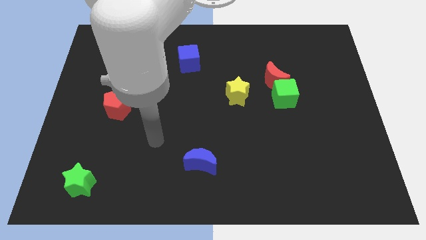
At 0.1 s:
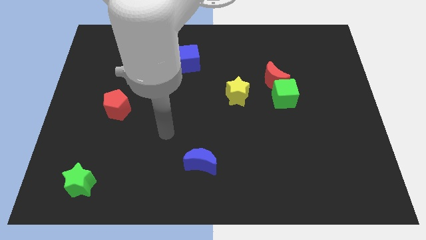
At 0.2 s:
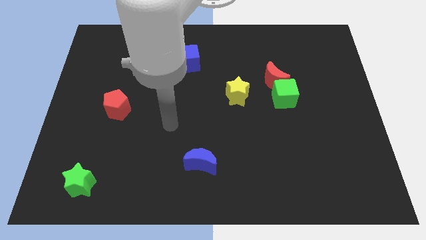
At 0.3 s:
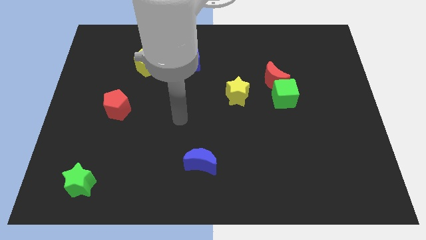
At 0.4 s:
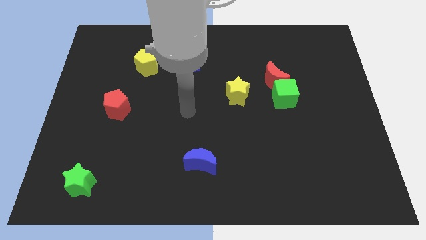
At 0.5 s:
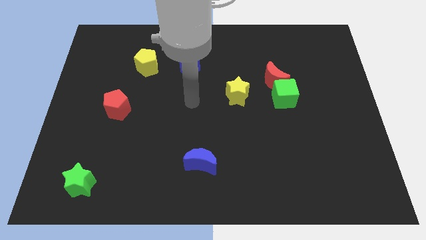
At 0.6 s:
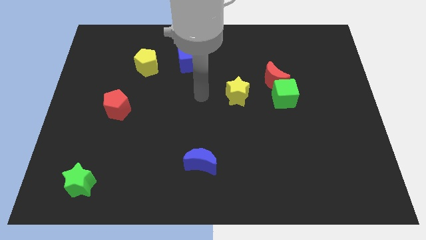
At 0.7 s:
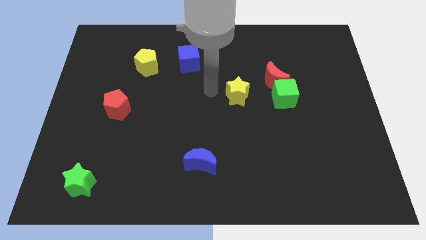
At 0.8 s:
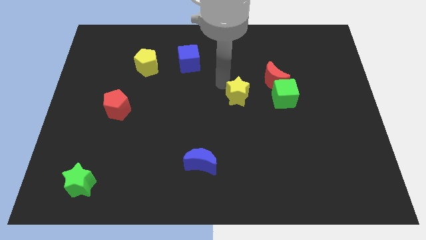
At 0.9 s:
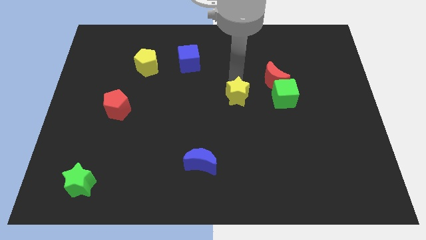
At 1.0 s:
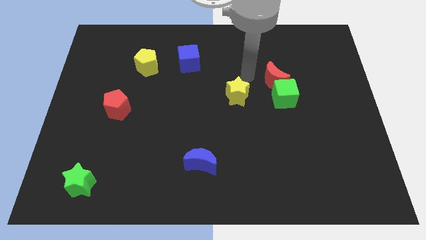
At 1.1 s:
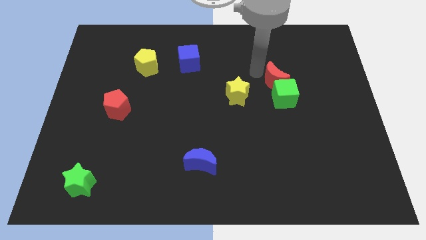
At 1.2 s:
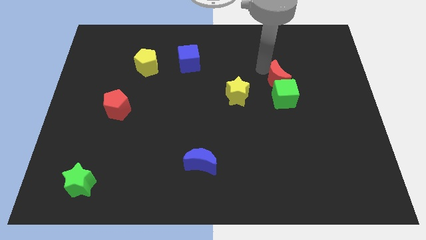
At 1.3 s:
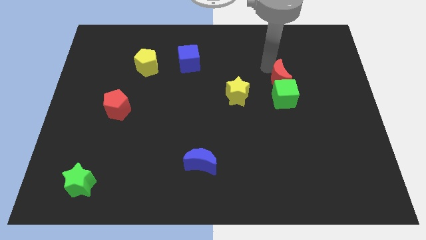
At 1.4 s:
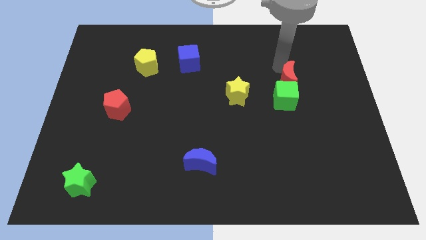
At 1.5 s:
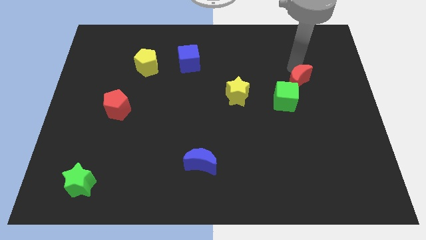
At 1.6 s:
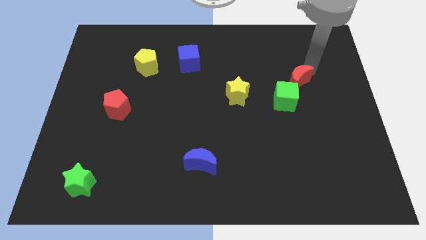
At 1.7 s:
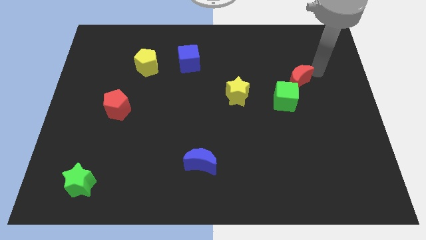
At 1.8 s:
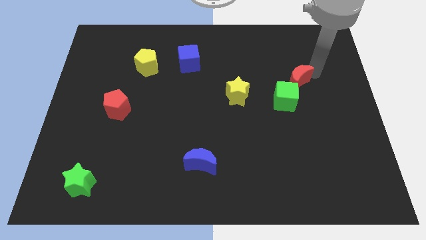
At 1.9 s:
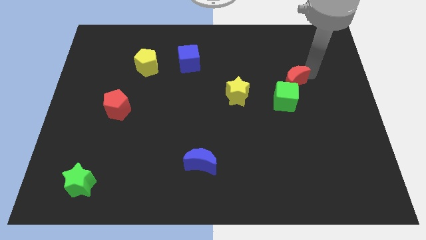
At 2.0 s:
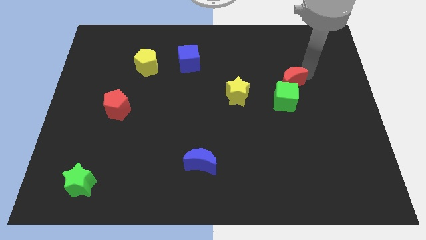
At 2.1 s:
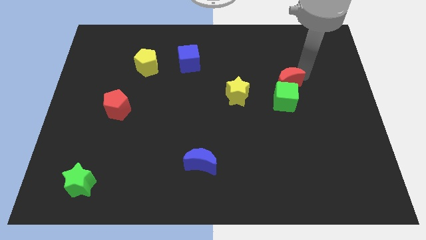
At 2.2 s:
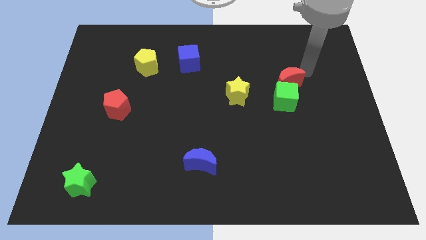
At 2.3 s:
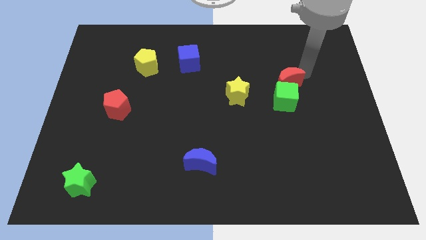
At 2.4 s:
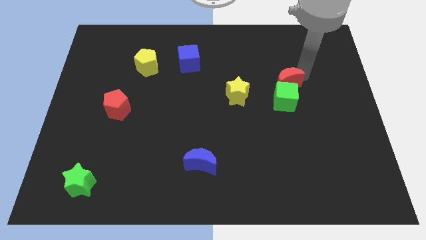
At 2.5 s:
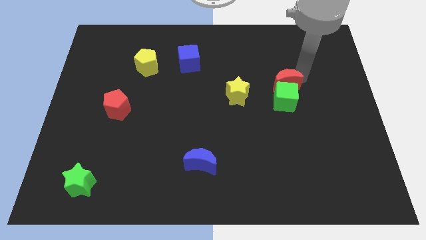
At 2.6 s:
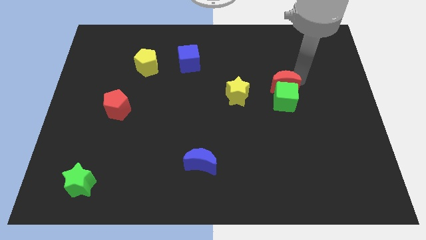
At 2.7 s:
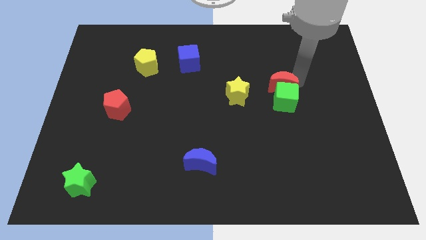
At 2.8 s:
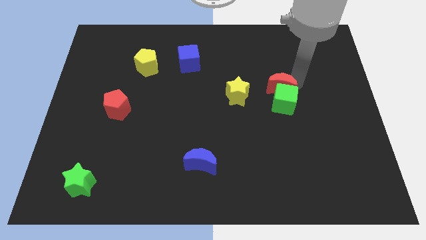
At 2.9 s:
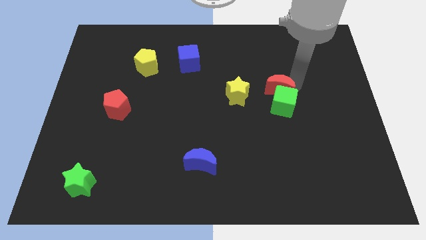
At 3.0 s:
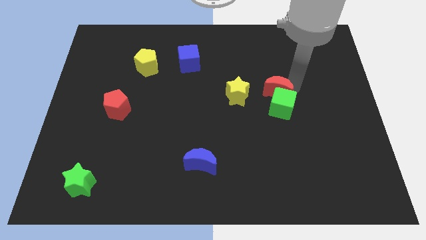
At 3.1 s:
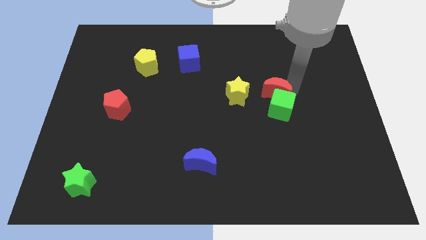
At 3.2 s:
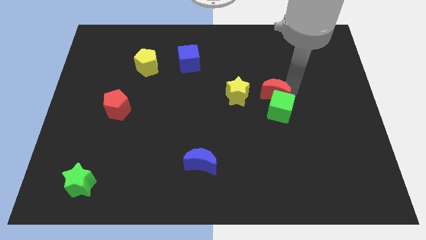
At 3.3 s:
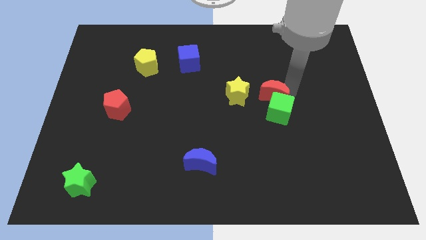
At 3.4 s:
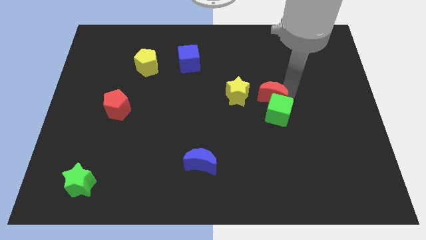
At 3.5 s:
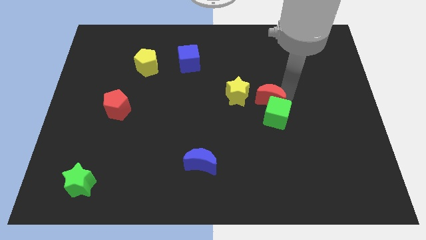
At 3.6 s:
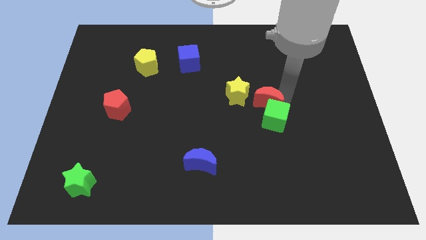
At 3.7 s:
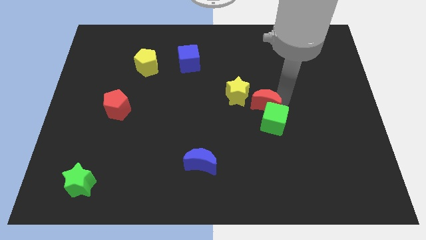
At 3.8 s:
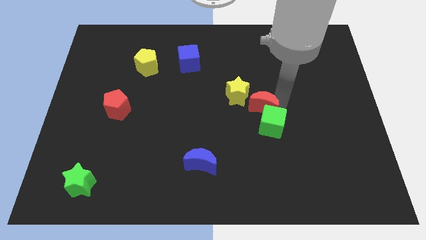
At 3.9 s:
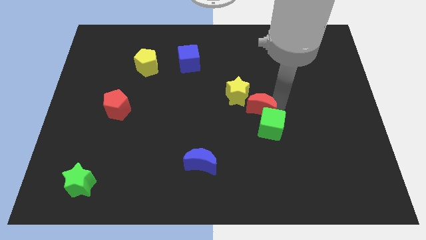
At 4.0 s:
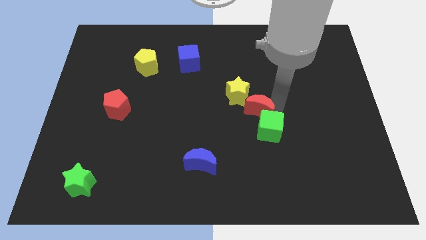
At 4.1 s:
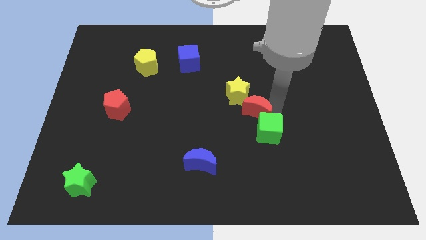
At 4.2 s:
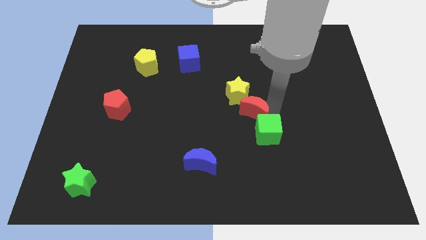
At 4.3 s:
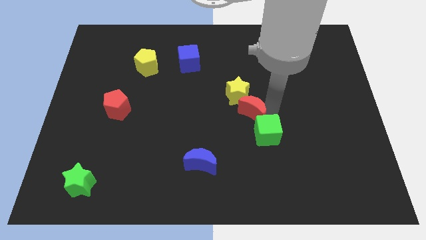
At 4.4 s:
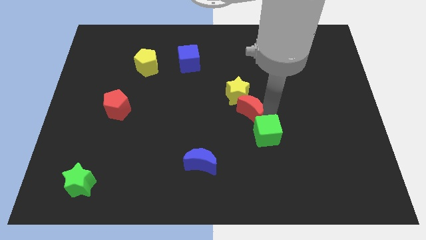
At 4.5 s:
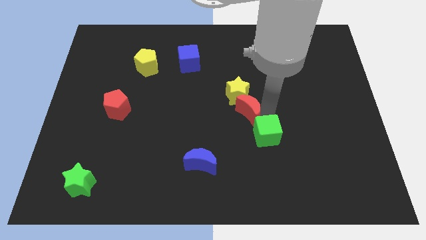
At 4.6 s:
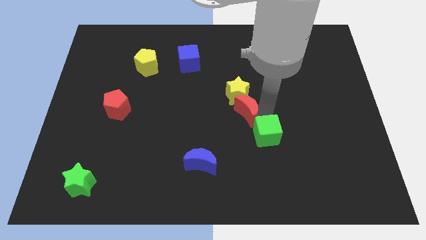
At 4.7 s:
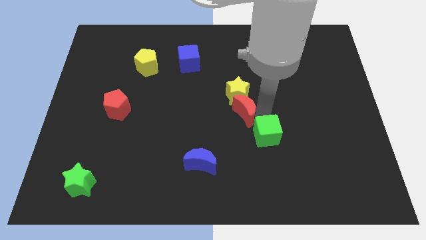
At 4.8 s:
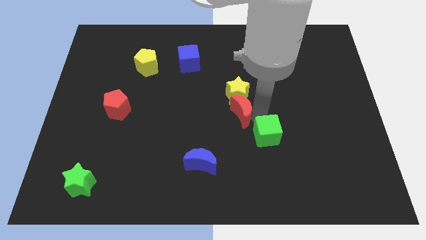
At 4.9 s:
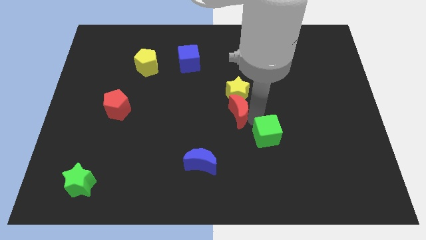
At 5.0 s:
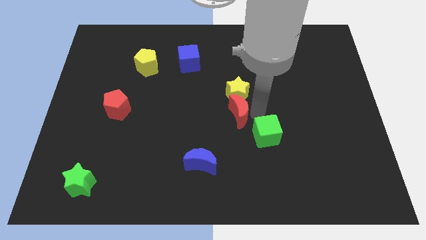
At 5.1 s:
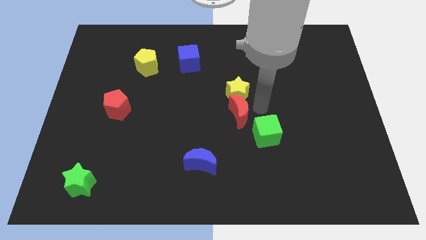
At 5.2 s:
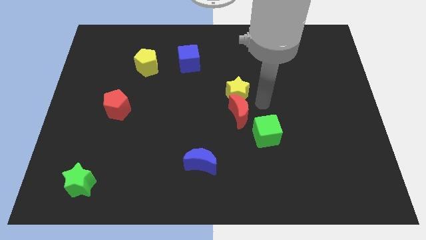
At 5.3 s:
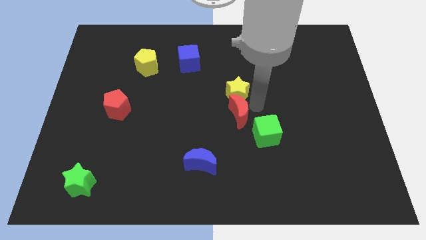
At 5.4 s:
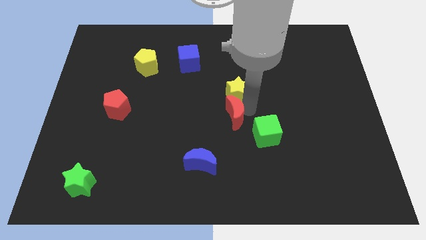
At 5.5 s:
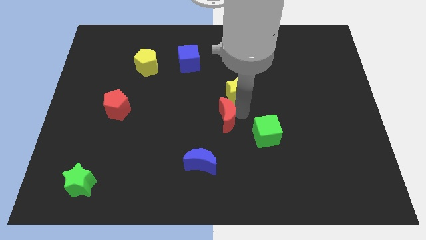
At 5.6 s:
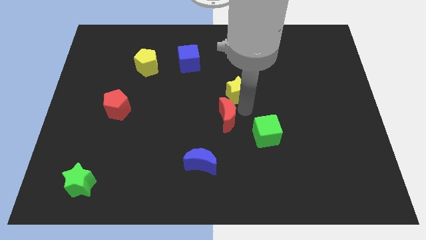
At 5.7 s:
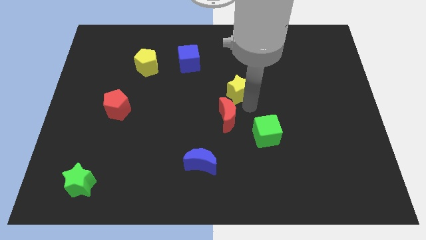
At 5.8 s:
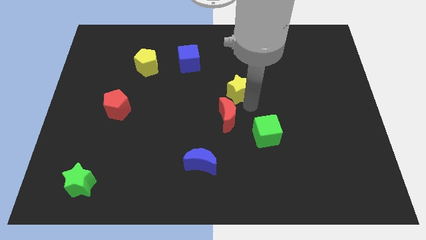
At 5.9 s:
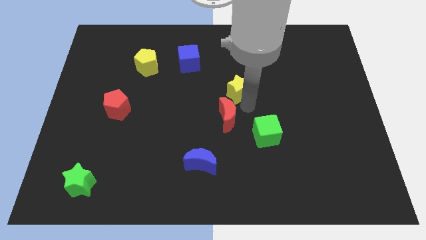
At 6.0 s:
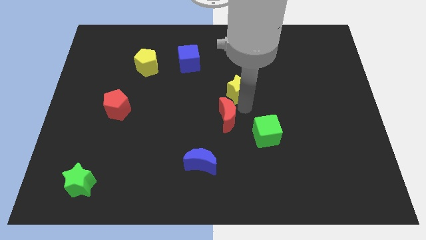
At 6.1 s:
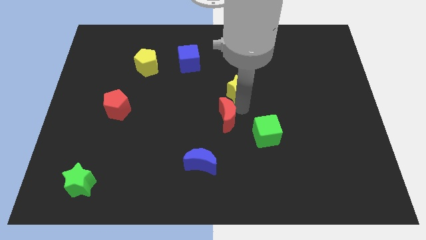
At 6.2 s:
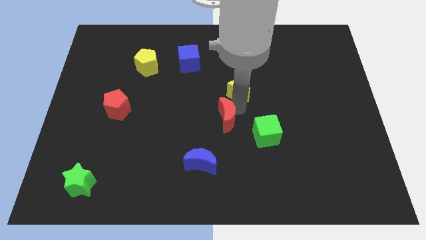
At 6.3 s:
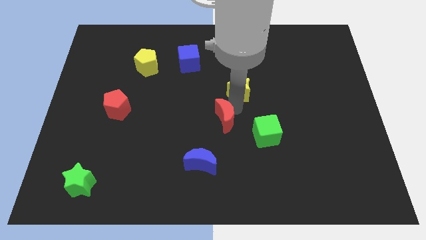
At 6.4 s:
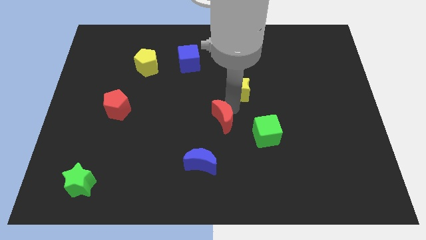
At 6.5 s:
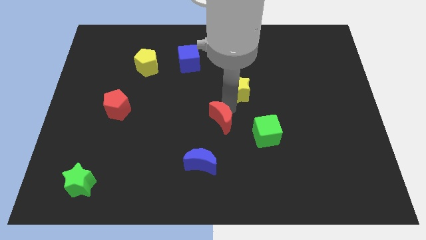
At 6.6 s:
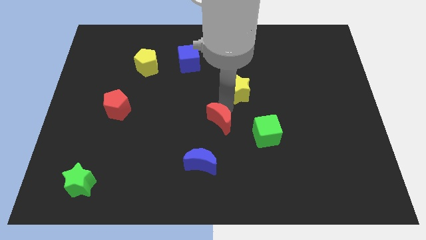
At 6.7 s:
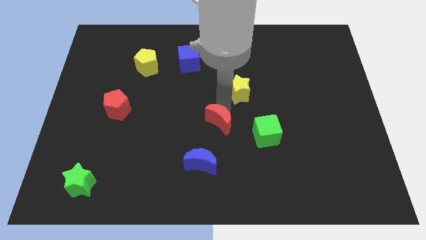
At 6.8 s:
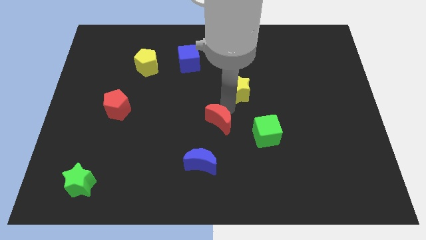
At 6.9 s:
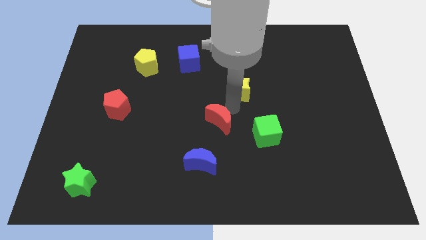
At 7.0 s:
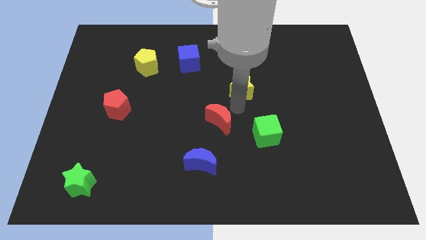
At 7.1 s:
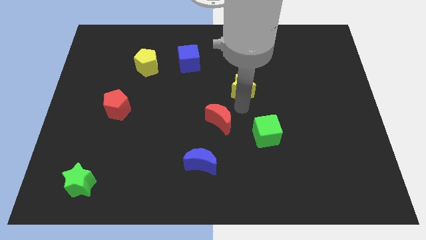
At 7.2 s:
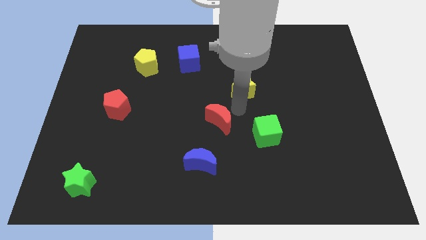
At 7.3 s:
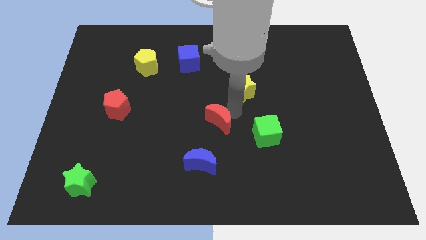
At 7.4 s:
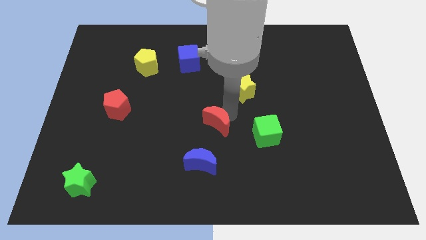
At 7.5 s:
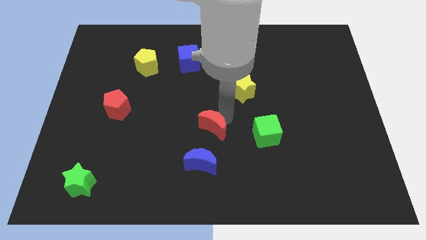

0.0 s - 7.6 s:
move the red moon diagonally down and to the left

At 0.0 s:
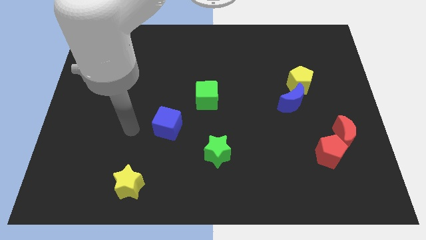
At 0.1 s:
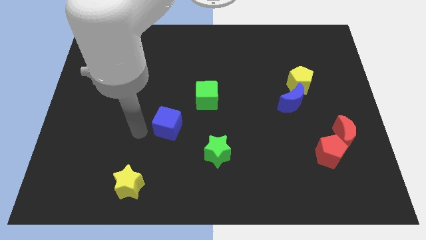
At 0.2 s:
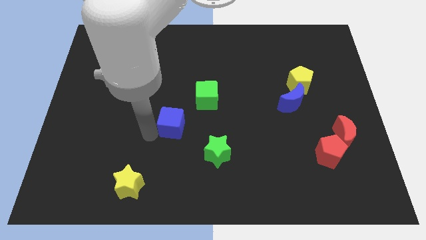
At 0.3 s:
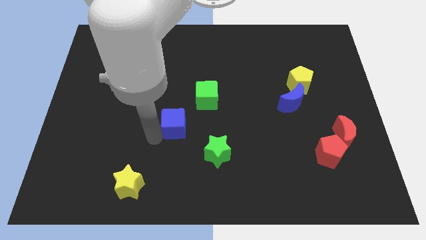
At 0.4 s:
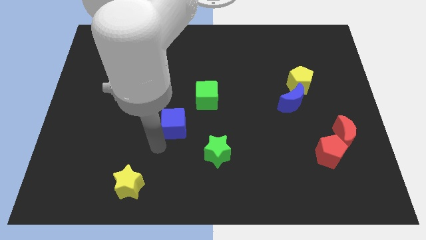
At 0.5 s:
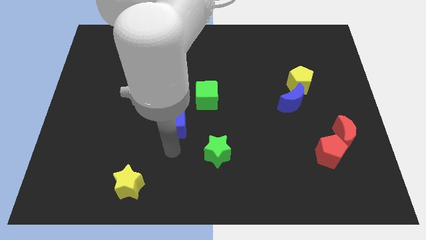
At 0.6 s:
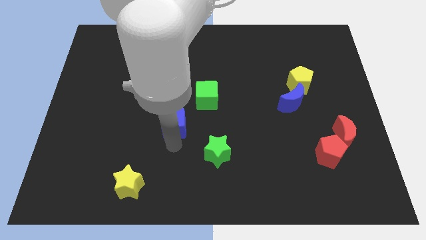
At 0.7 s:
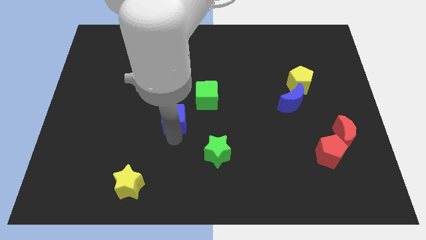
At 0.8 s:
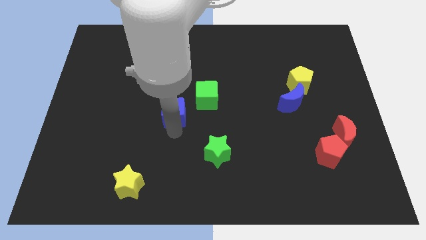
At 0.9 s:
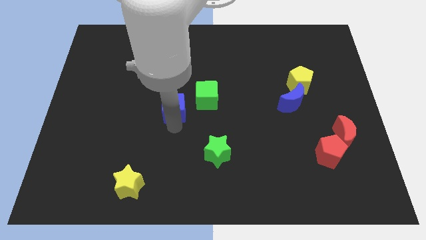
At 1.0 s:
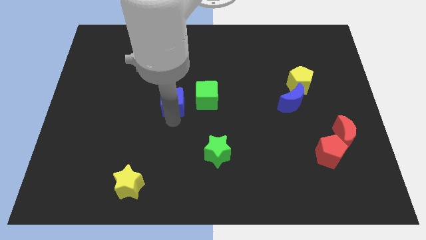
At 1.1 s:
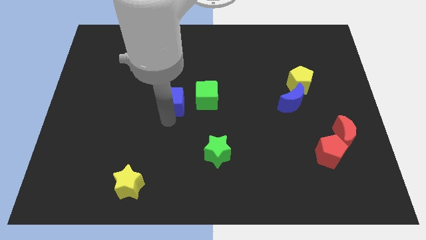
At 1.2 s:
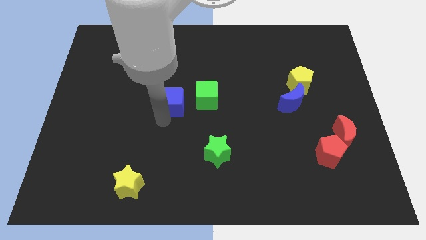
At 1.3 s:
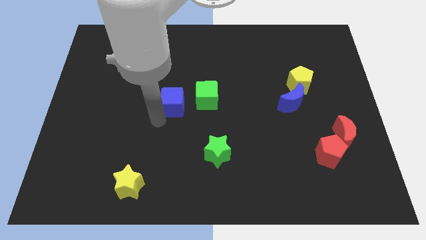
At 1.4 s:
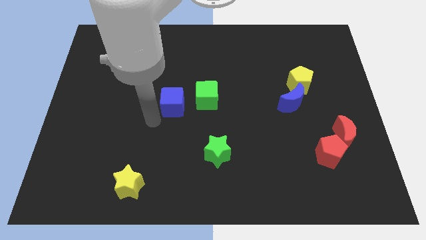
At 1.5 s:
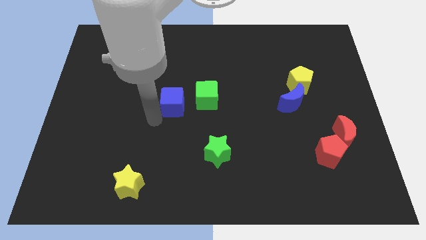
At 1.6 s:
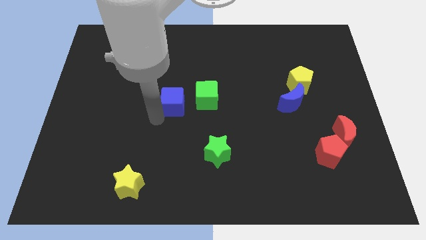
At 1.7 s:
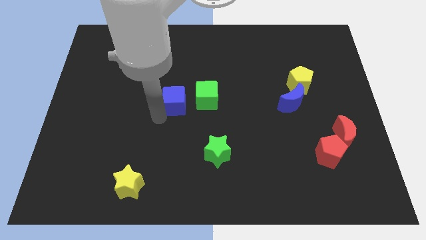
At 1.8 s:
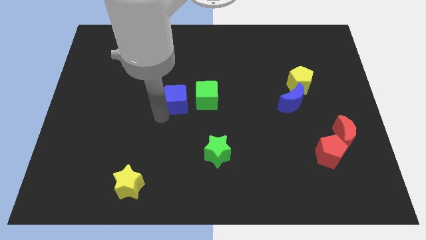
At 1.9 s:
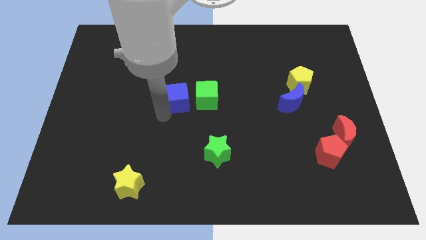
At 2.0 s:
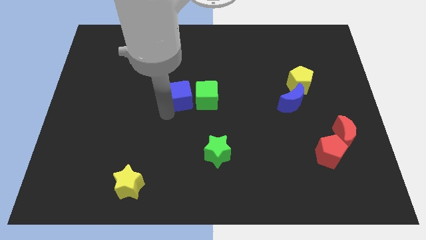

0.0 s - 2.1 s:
slightly move the blue cube upwards and right
